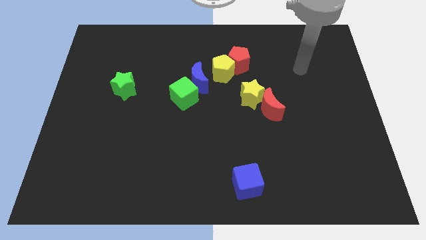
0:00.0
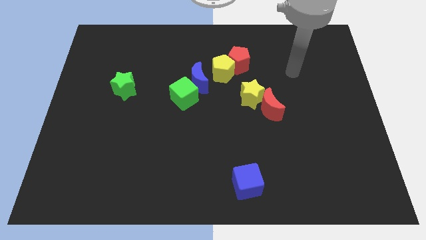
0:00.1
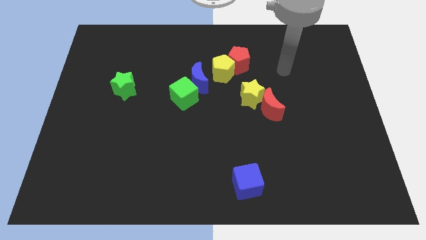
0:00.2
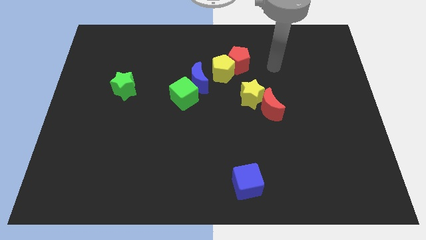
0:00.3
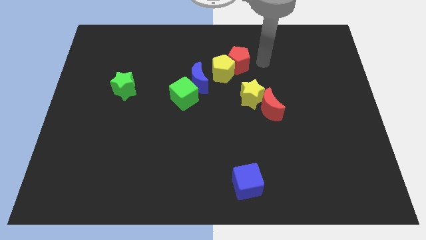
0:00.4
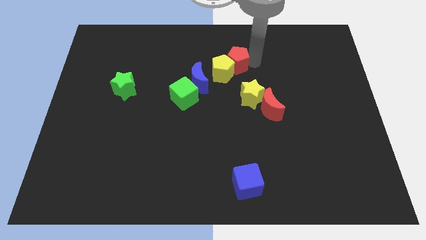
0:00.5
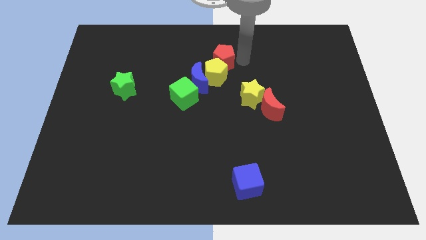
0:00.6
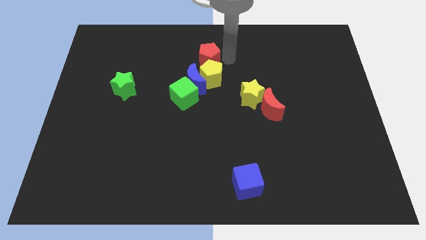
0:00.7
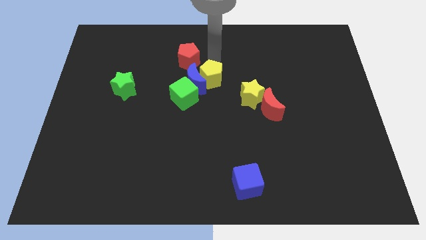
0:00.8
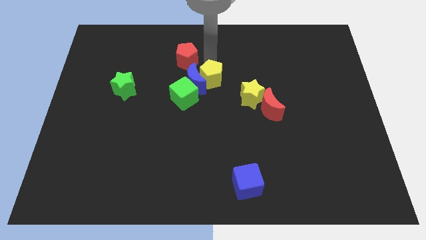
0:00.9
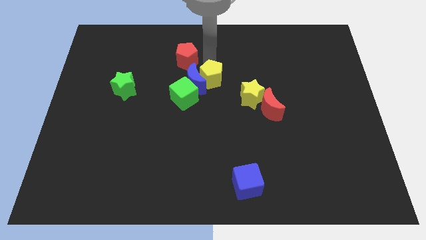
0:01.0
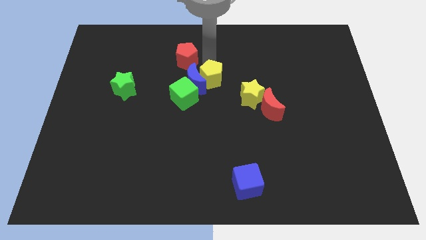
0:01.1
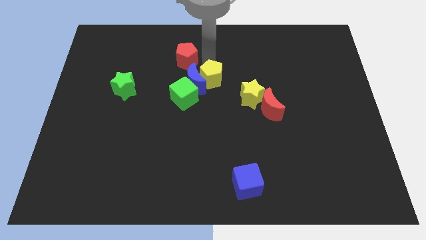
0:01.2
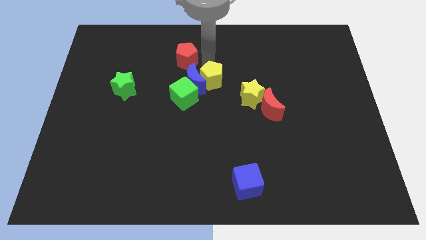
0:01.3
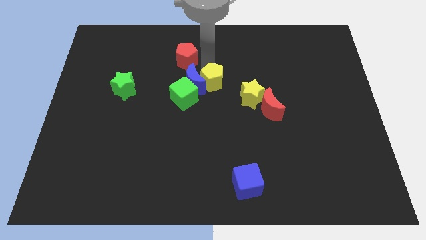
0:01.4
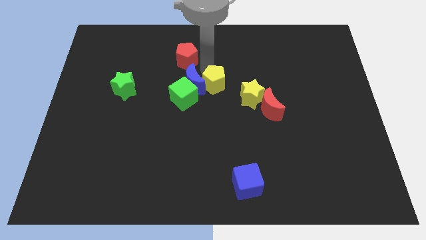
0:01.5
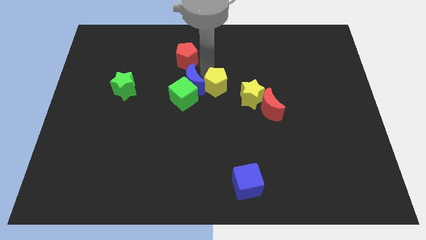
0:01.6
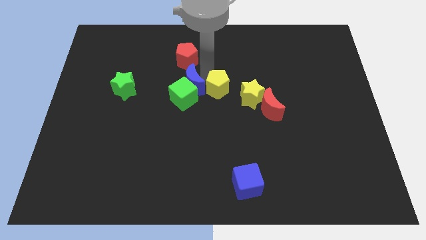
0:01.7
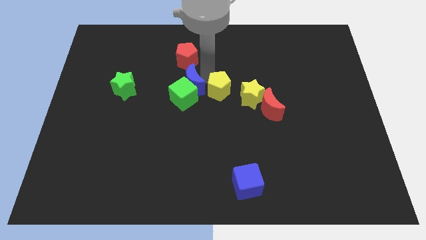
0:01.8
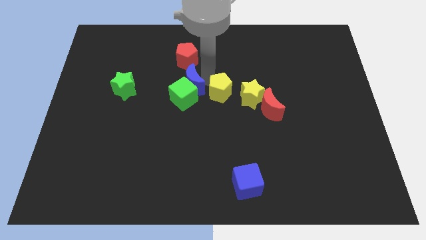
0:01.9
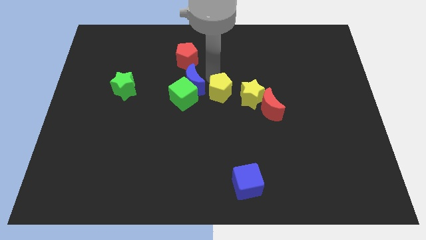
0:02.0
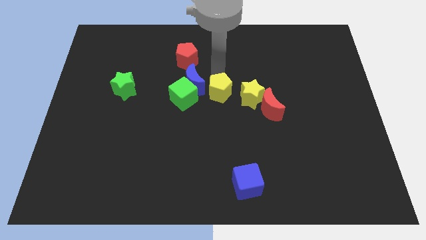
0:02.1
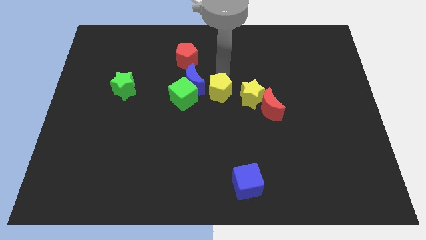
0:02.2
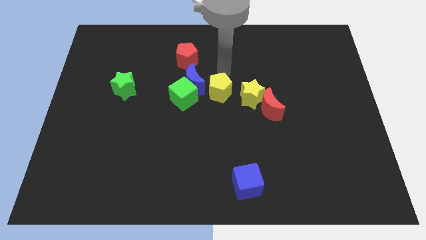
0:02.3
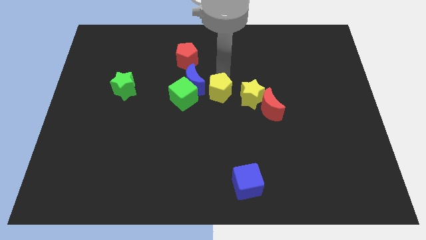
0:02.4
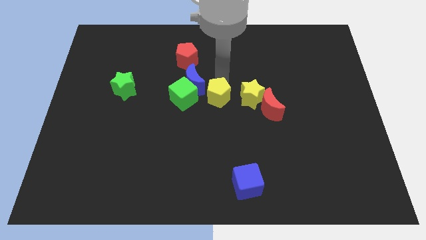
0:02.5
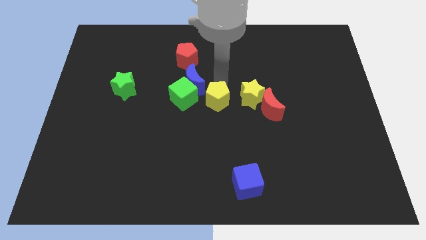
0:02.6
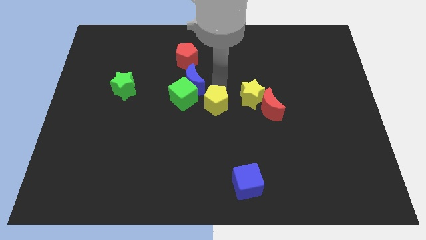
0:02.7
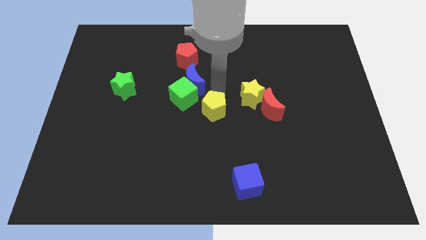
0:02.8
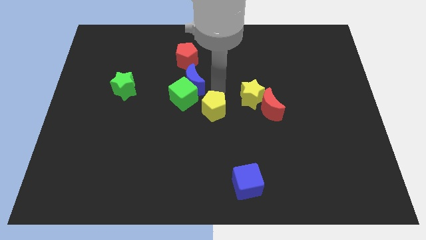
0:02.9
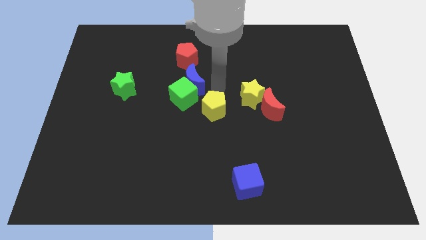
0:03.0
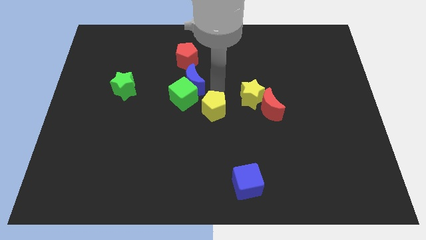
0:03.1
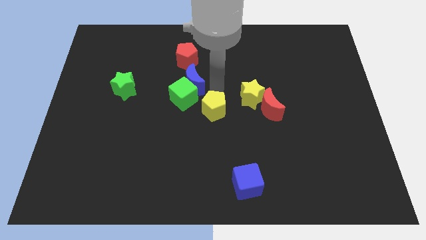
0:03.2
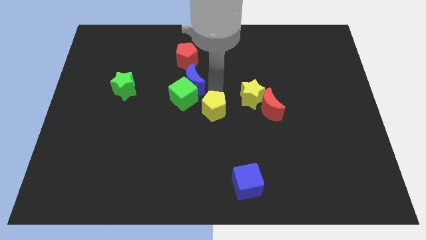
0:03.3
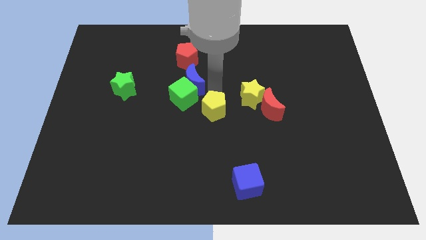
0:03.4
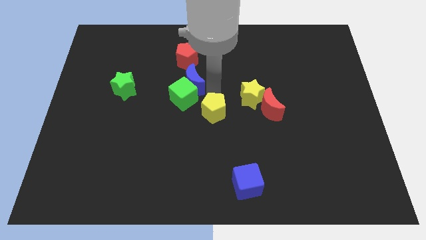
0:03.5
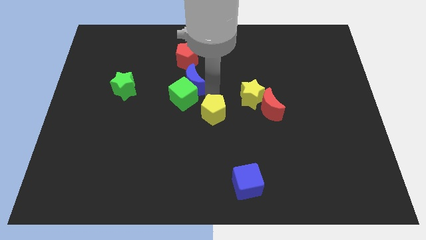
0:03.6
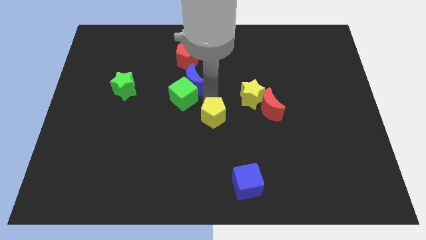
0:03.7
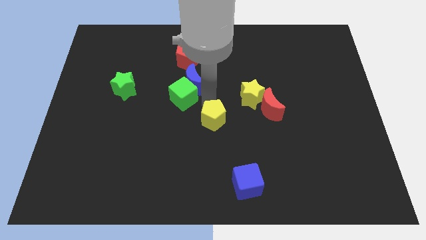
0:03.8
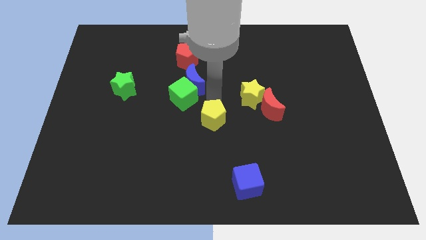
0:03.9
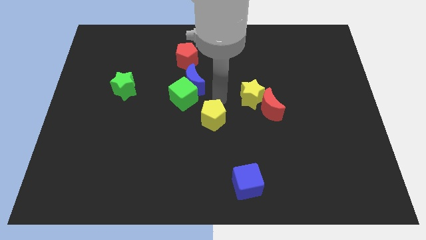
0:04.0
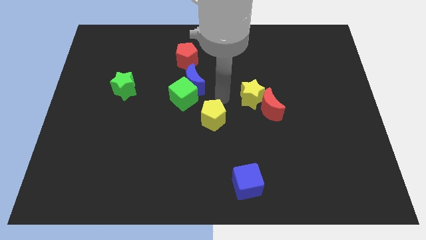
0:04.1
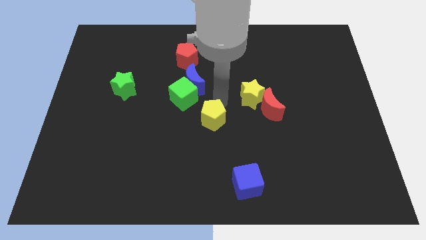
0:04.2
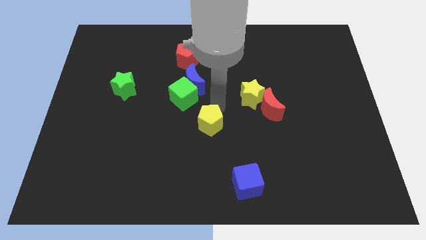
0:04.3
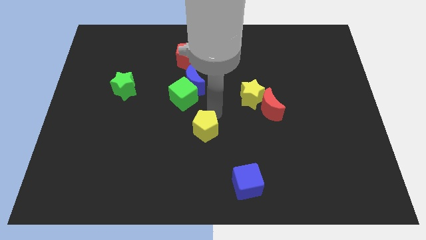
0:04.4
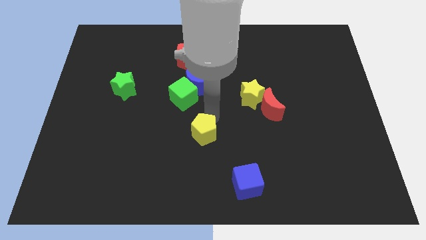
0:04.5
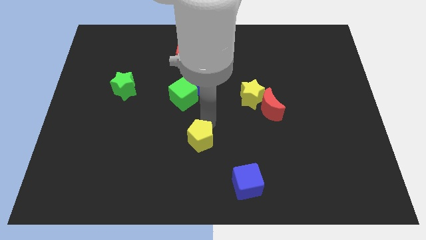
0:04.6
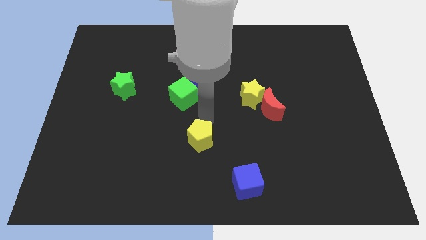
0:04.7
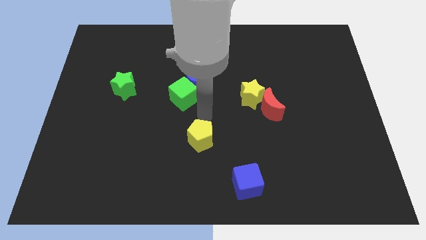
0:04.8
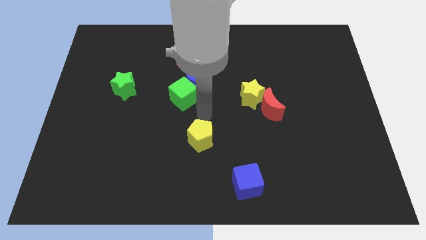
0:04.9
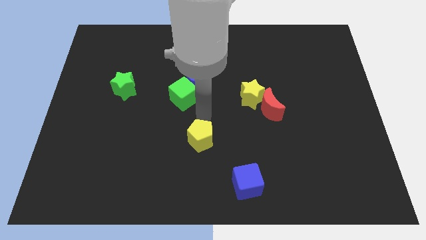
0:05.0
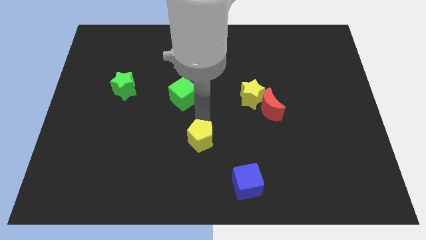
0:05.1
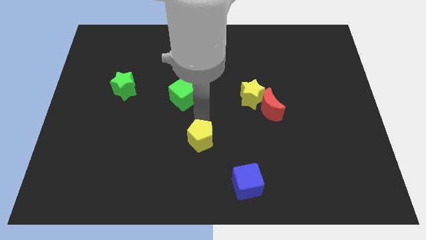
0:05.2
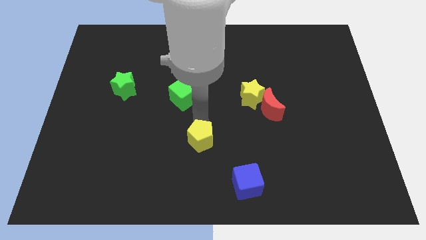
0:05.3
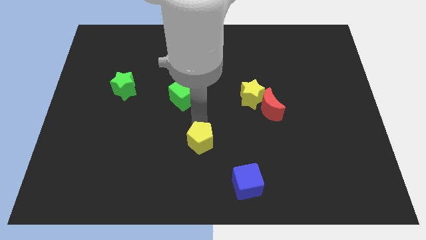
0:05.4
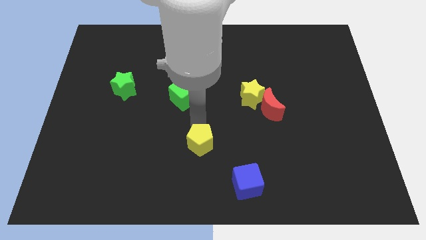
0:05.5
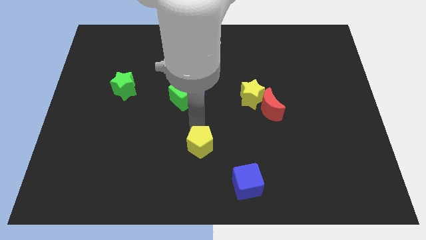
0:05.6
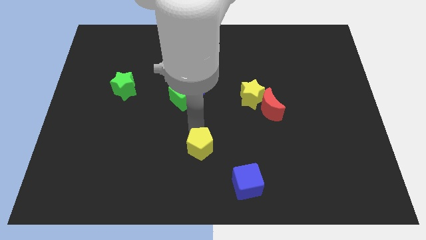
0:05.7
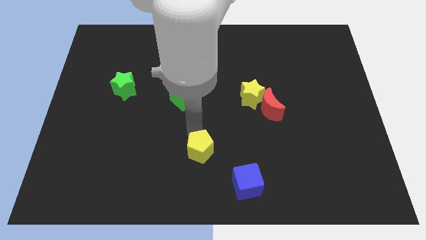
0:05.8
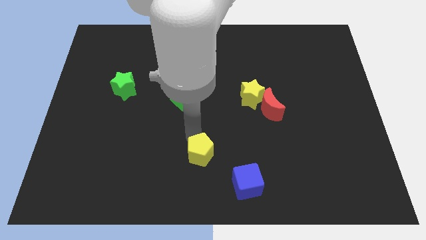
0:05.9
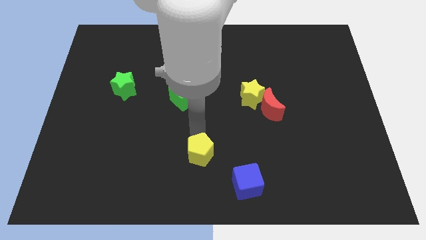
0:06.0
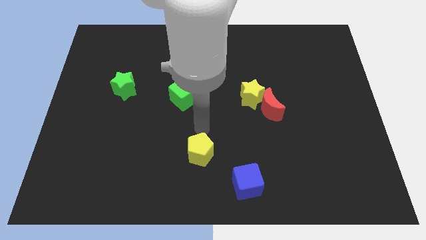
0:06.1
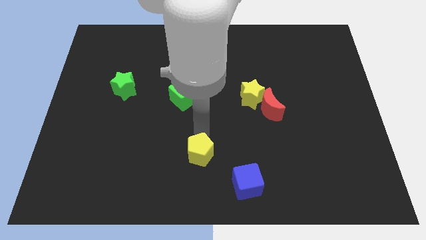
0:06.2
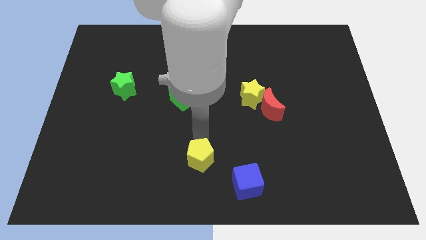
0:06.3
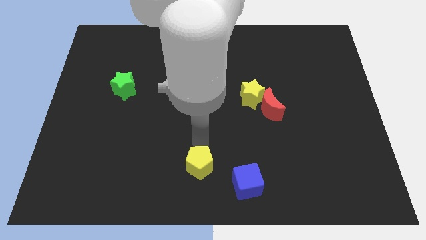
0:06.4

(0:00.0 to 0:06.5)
move the yellow pentagon to the left of the blue cube

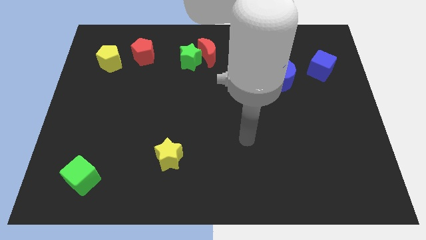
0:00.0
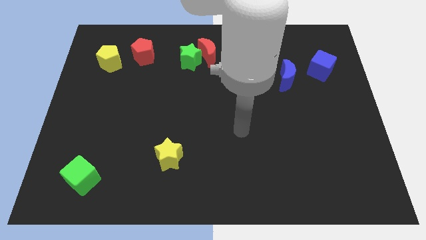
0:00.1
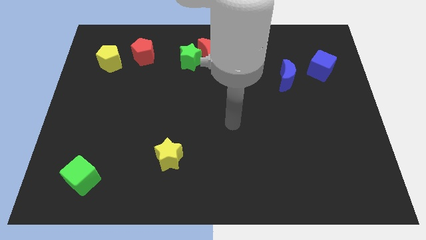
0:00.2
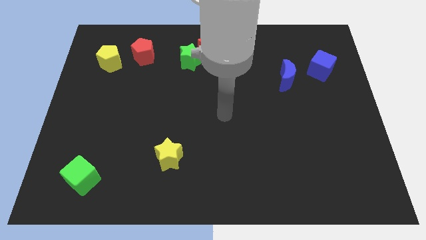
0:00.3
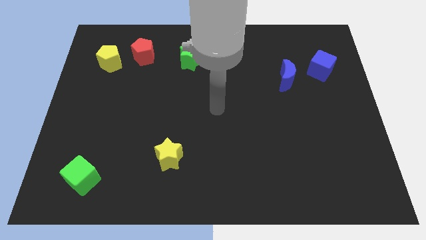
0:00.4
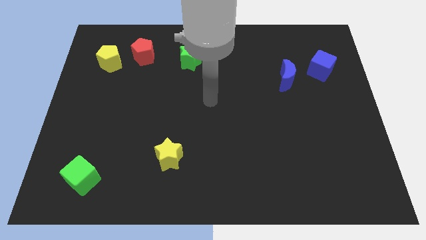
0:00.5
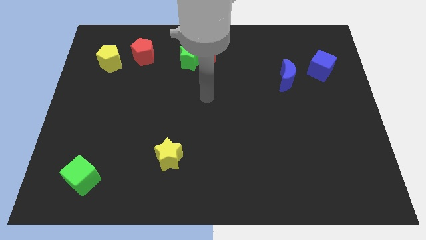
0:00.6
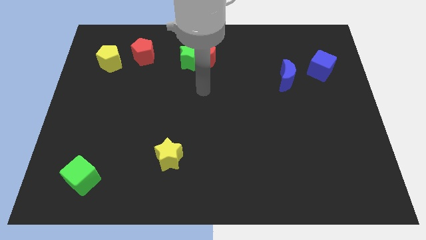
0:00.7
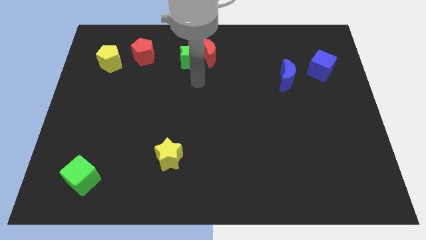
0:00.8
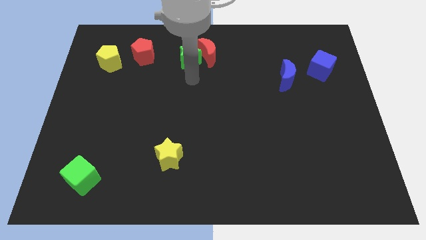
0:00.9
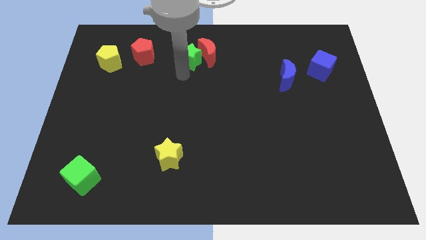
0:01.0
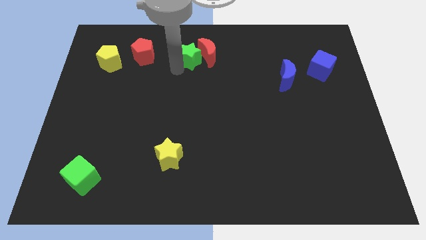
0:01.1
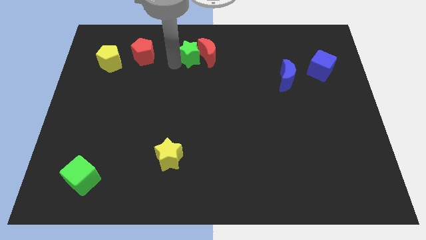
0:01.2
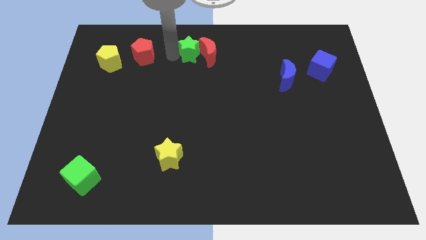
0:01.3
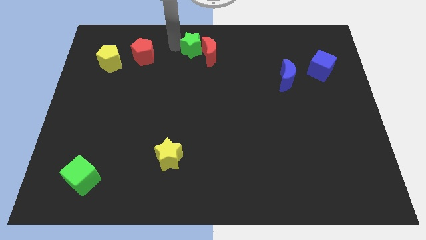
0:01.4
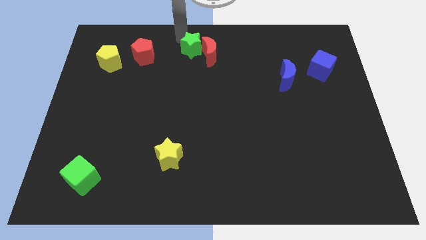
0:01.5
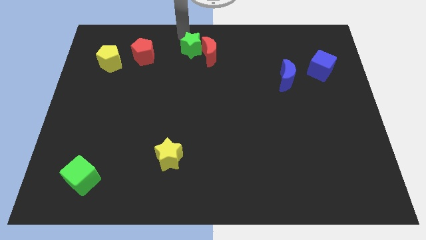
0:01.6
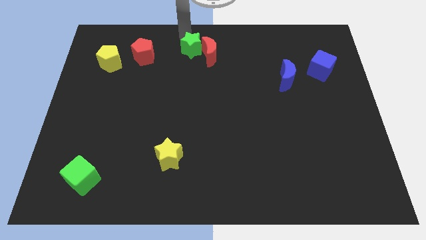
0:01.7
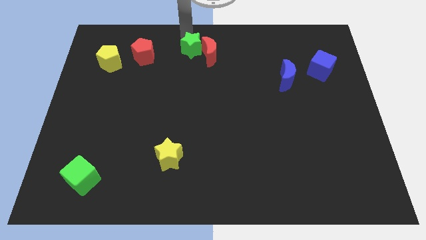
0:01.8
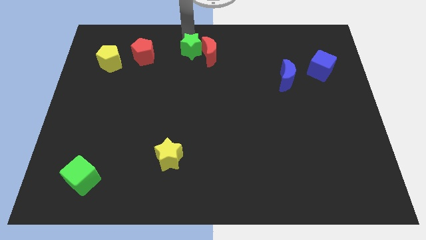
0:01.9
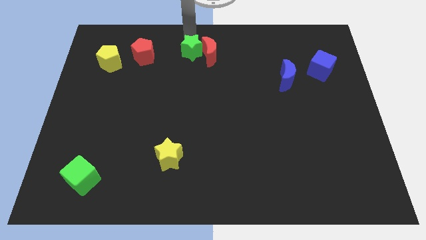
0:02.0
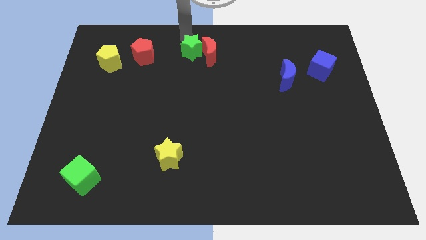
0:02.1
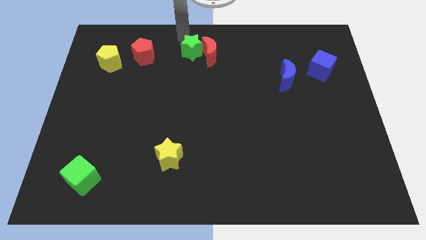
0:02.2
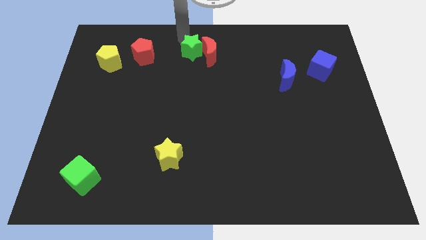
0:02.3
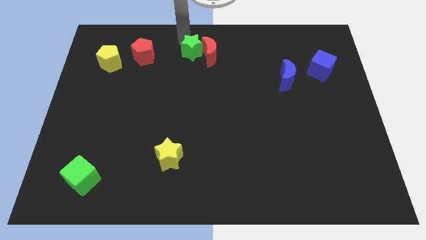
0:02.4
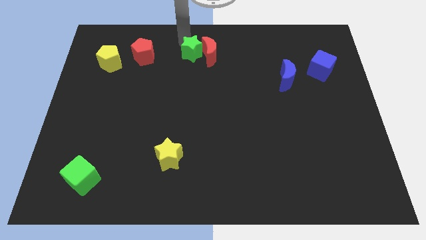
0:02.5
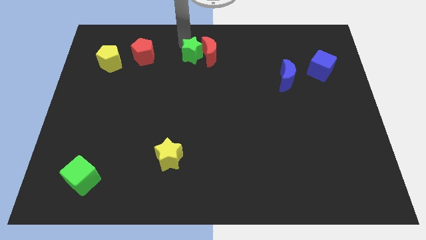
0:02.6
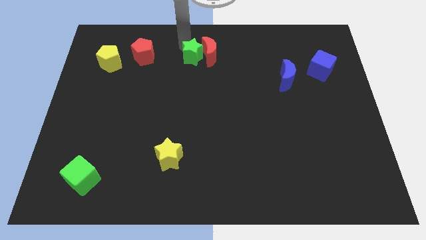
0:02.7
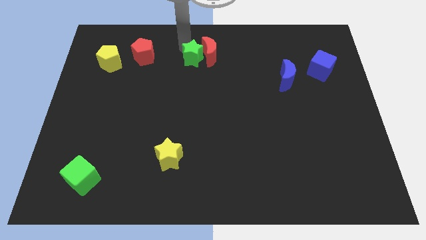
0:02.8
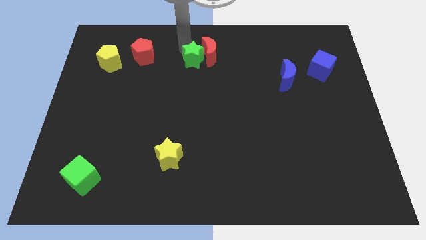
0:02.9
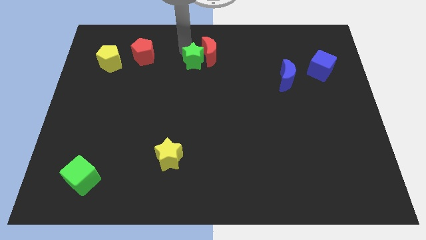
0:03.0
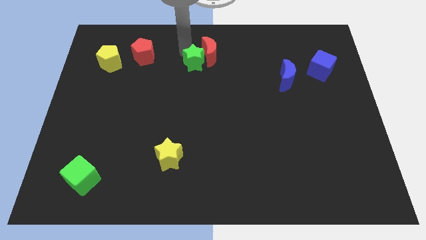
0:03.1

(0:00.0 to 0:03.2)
move the green star to the bottom side of the red moon
